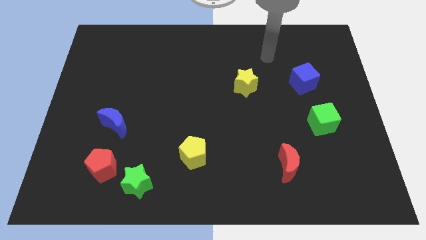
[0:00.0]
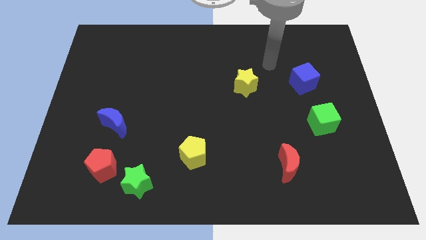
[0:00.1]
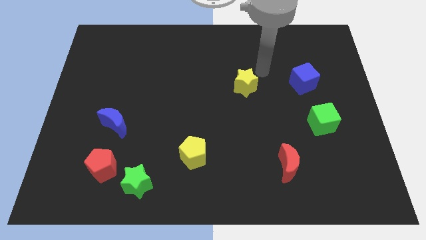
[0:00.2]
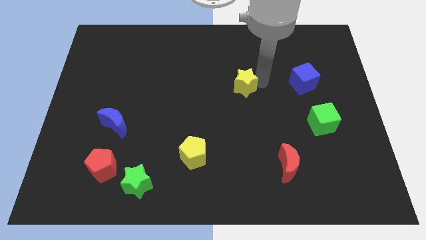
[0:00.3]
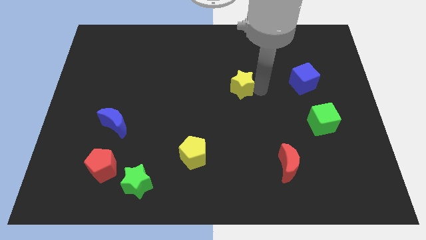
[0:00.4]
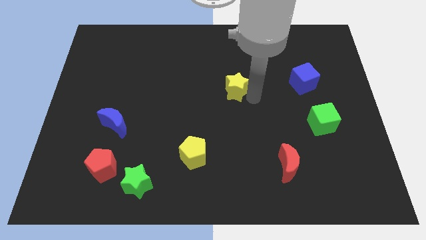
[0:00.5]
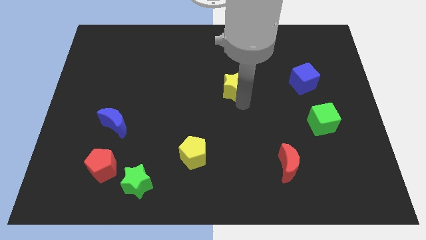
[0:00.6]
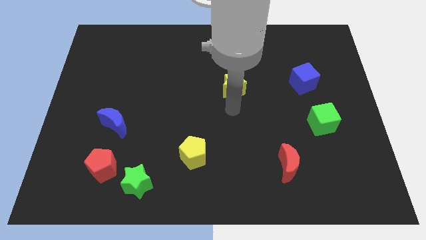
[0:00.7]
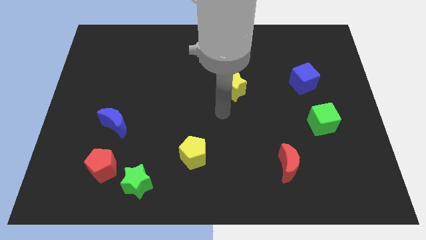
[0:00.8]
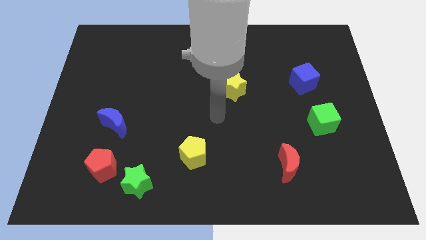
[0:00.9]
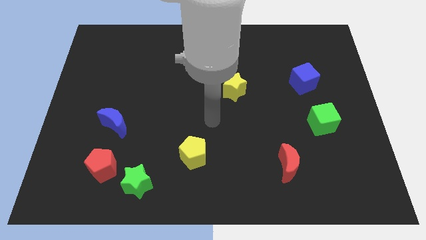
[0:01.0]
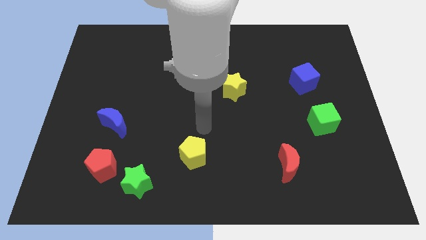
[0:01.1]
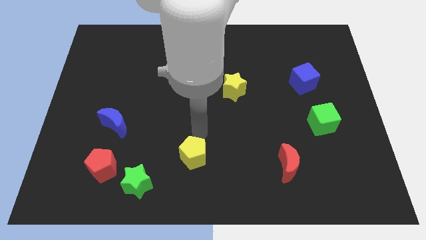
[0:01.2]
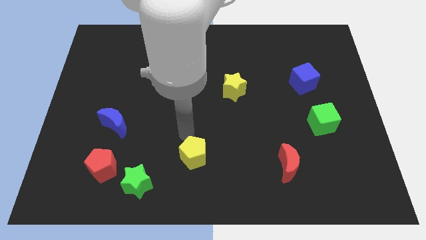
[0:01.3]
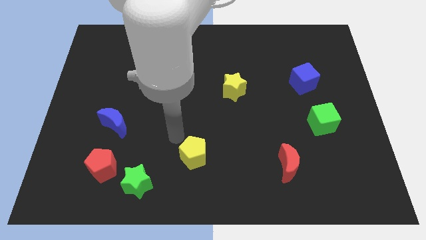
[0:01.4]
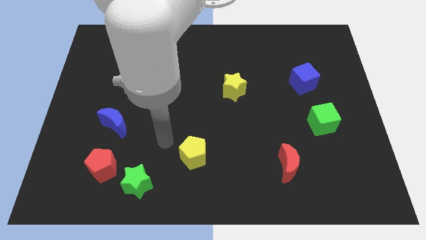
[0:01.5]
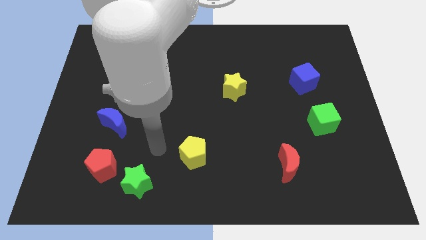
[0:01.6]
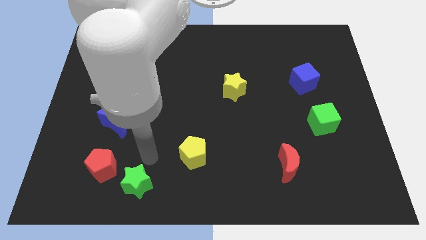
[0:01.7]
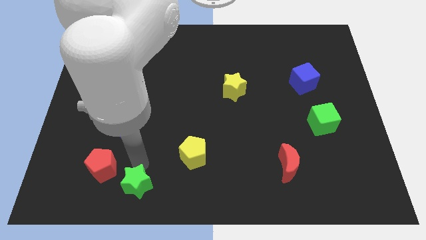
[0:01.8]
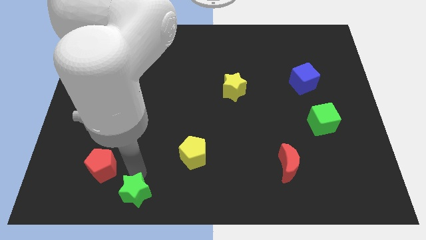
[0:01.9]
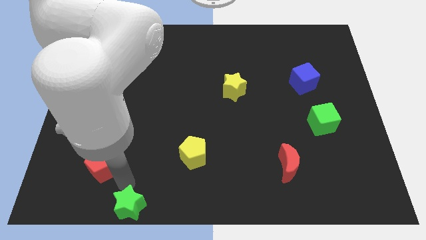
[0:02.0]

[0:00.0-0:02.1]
move the red pentagon away from the green star

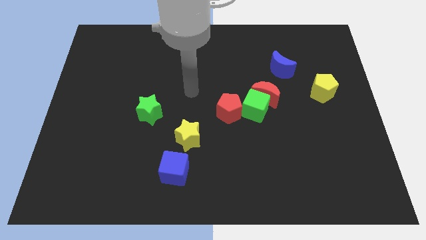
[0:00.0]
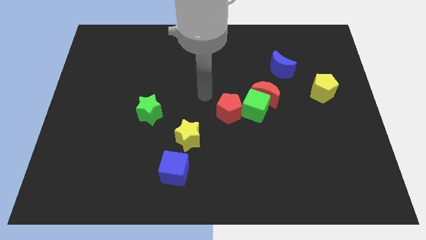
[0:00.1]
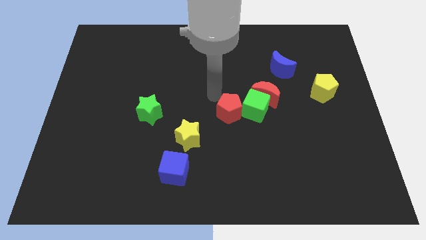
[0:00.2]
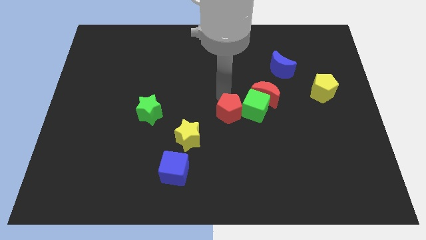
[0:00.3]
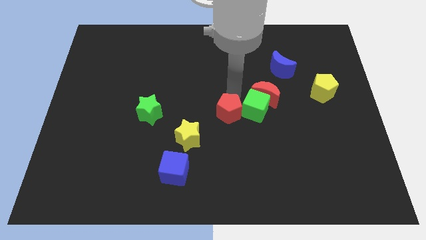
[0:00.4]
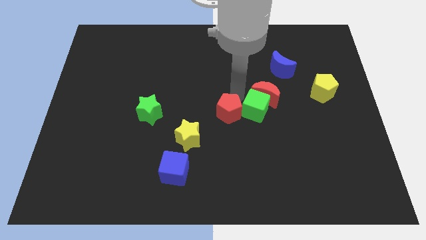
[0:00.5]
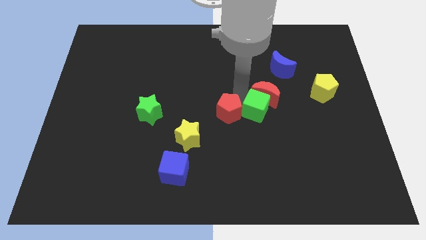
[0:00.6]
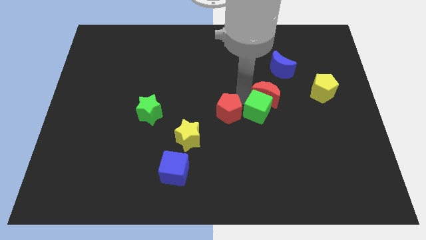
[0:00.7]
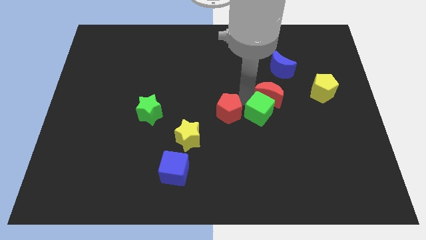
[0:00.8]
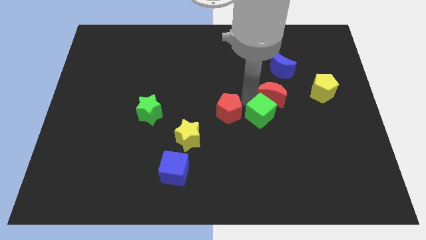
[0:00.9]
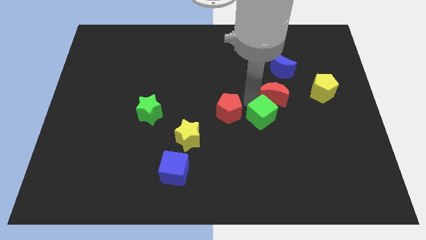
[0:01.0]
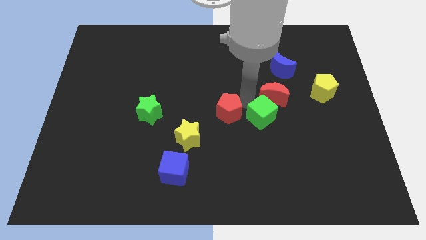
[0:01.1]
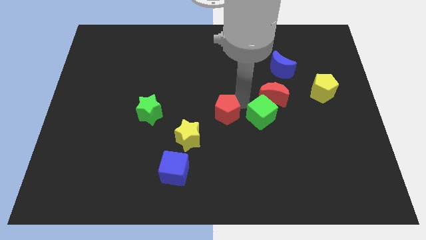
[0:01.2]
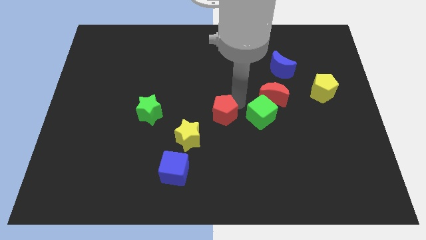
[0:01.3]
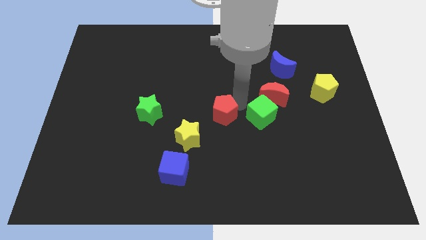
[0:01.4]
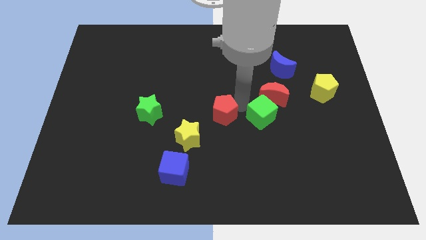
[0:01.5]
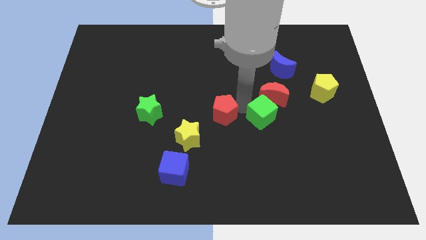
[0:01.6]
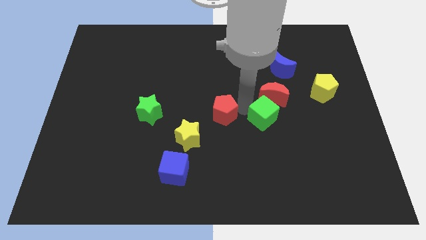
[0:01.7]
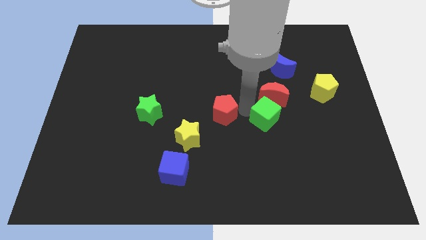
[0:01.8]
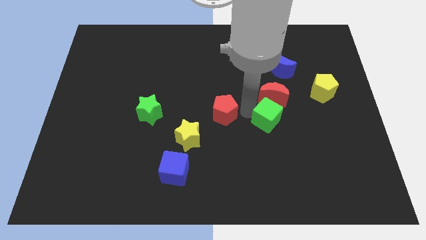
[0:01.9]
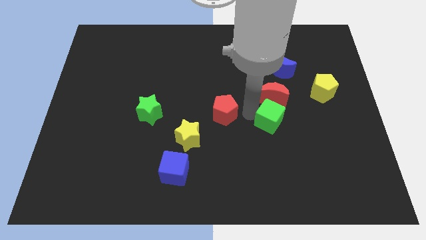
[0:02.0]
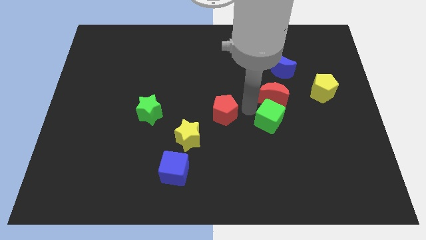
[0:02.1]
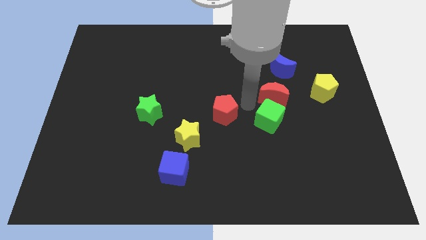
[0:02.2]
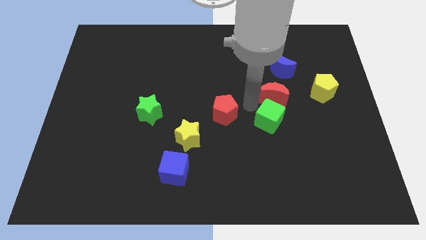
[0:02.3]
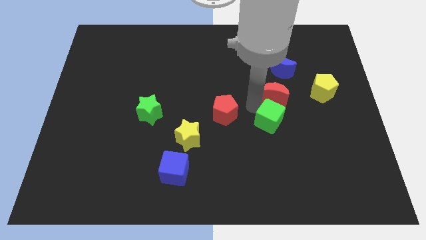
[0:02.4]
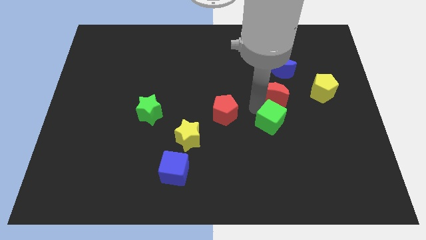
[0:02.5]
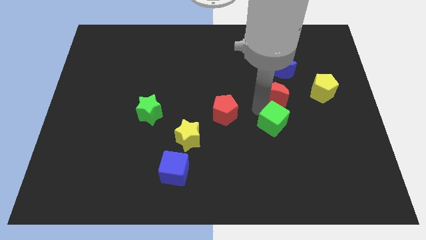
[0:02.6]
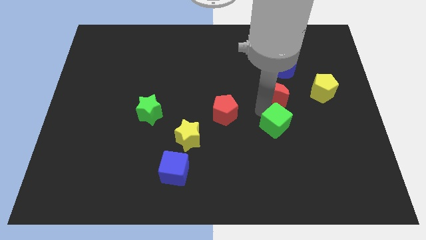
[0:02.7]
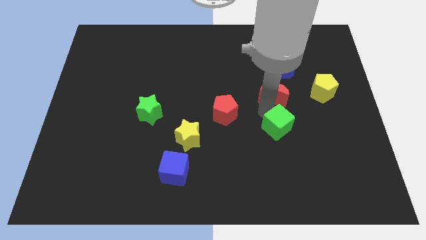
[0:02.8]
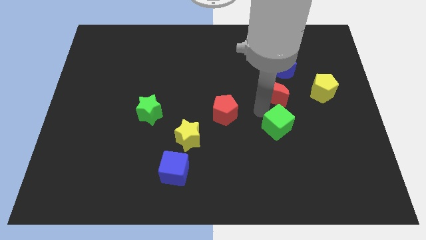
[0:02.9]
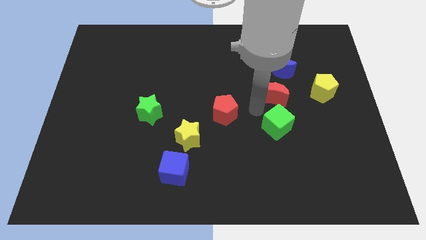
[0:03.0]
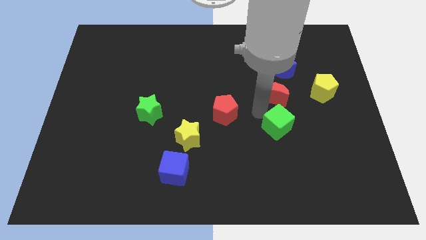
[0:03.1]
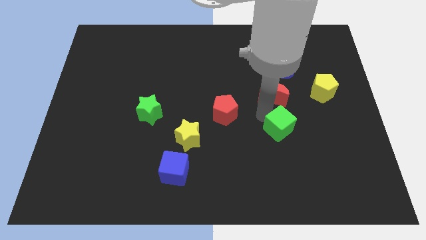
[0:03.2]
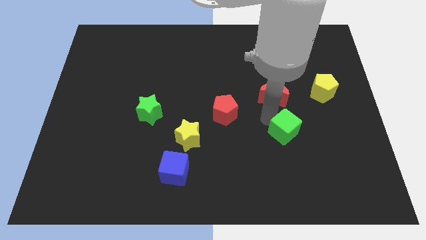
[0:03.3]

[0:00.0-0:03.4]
separate the green cube from the red moon and red pentagon

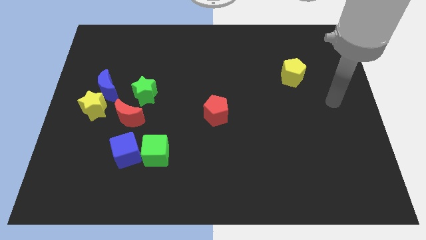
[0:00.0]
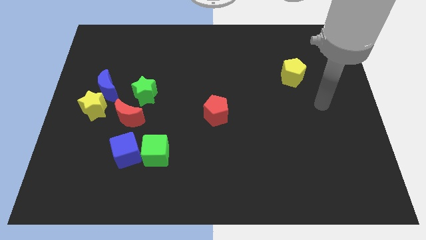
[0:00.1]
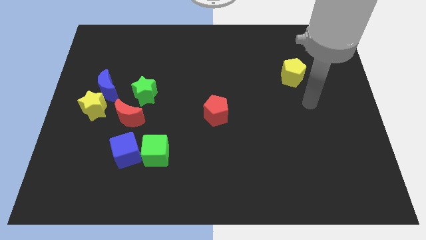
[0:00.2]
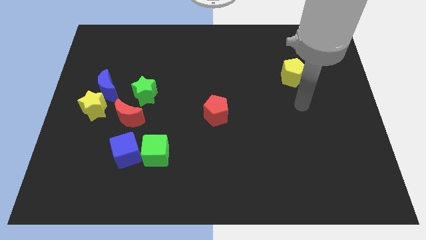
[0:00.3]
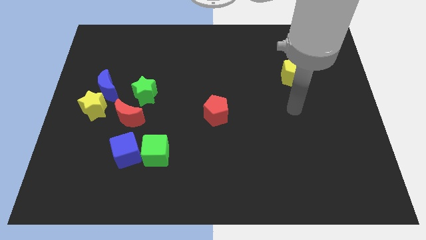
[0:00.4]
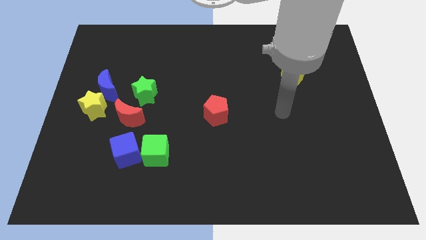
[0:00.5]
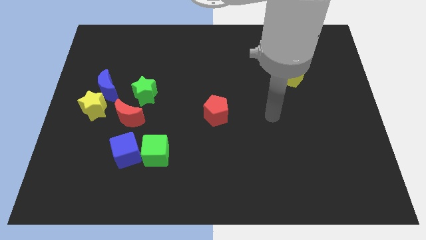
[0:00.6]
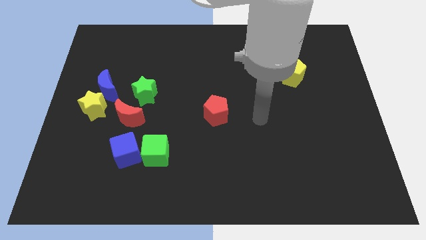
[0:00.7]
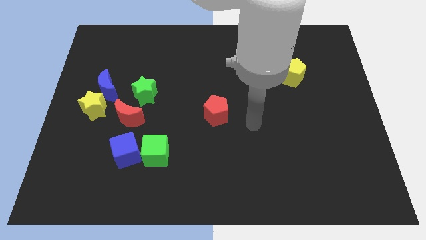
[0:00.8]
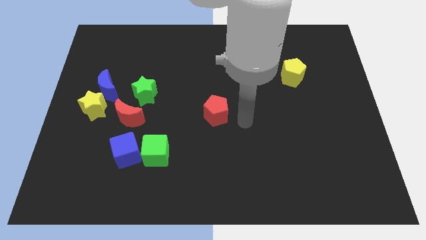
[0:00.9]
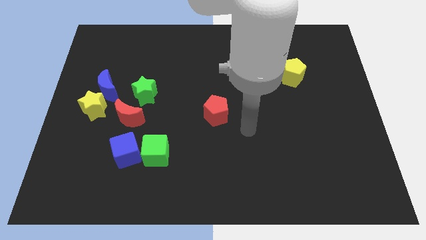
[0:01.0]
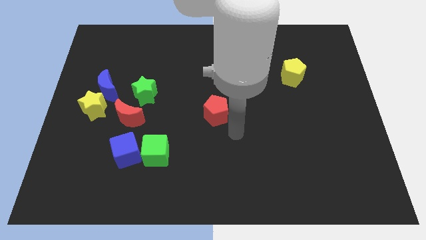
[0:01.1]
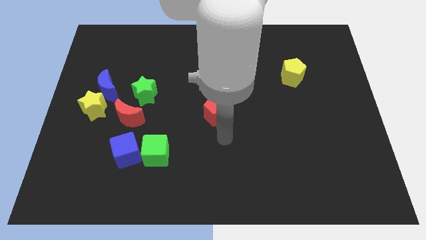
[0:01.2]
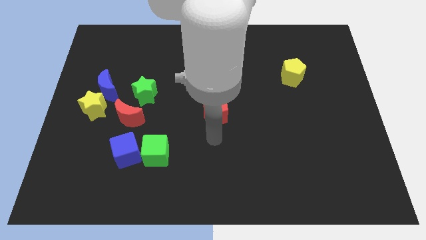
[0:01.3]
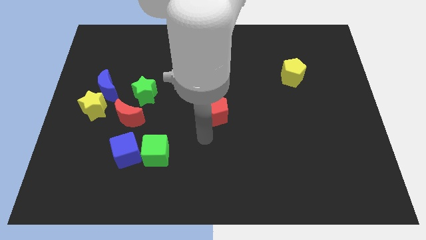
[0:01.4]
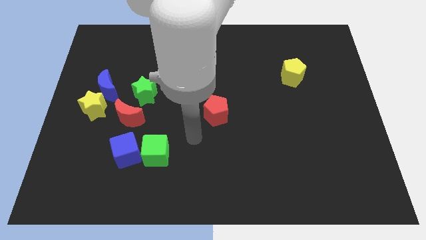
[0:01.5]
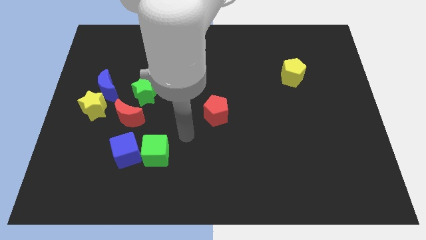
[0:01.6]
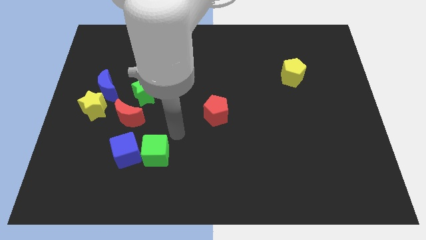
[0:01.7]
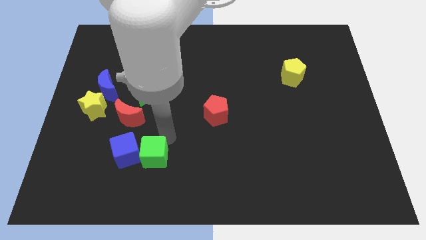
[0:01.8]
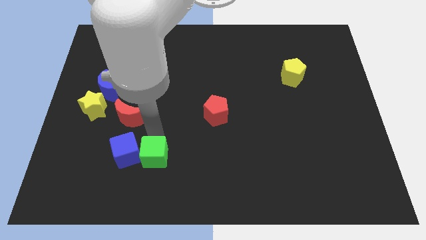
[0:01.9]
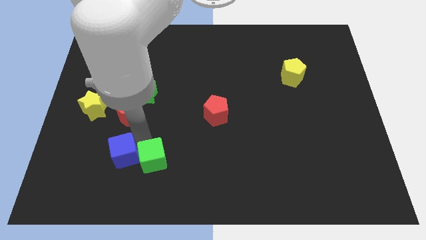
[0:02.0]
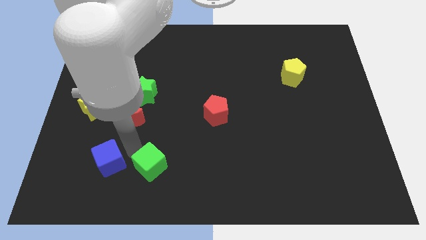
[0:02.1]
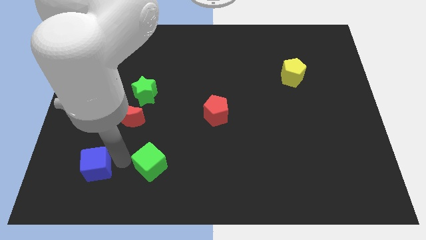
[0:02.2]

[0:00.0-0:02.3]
pull the green cube apart from the blue cube

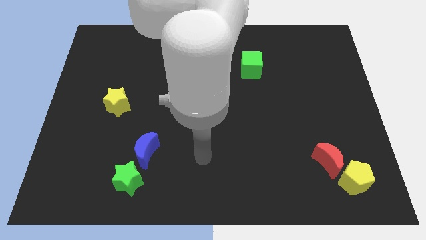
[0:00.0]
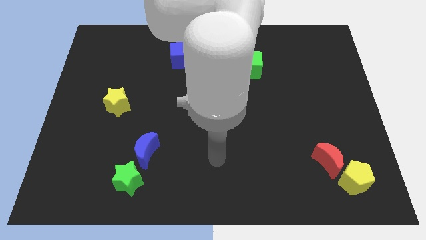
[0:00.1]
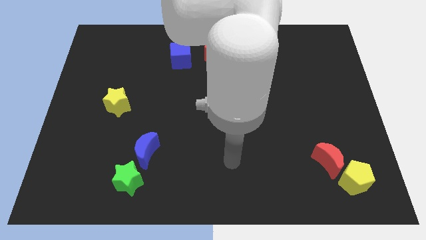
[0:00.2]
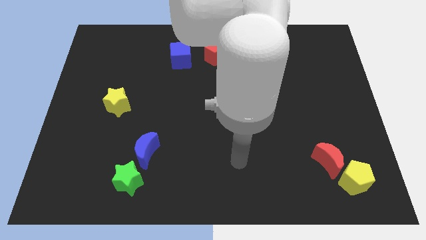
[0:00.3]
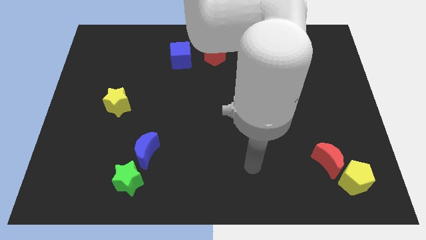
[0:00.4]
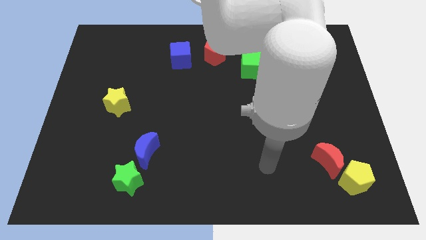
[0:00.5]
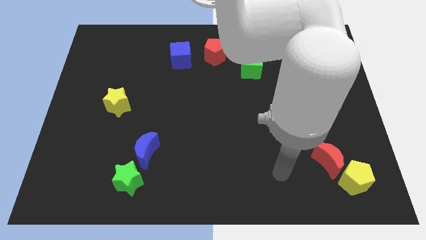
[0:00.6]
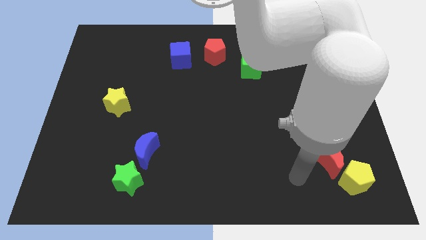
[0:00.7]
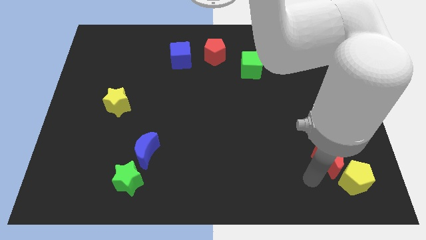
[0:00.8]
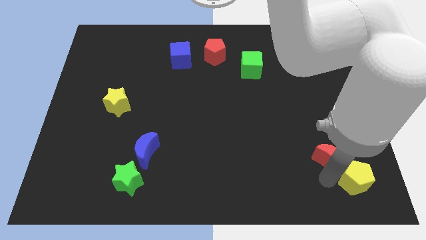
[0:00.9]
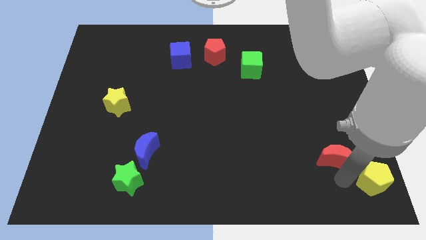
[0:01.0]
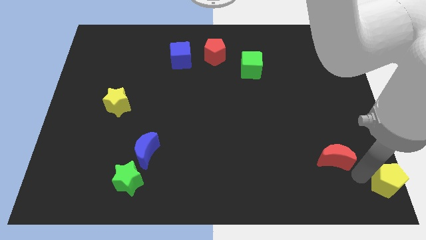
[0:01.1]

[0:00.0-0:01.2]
move the red moon away from the yellow pentagon

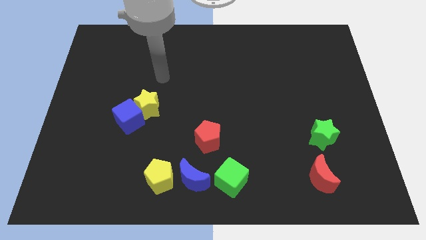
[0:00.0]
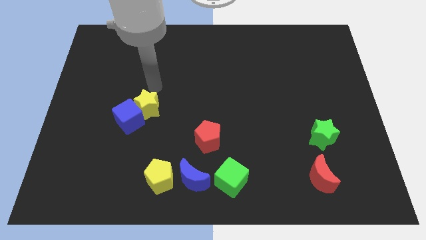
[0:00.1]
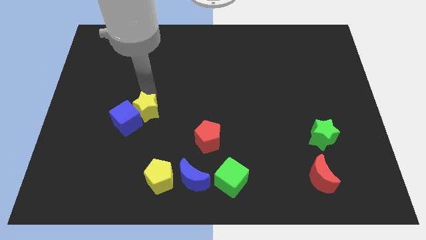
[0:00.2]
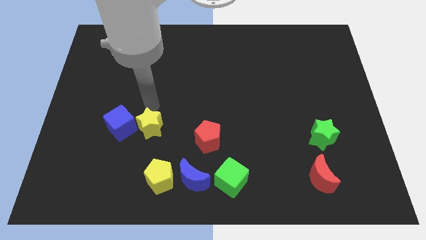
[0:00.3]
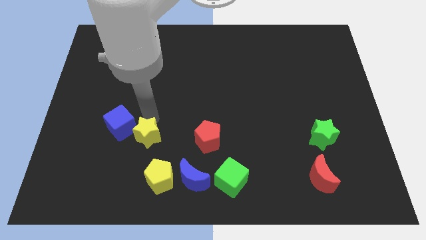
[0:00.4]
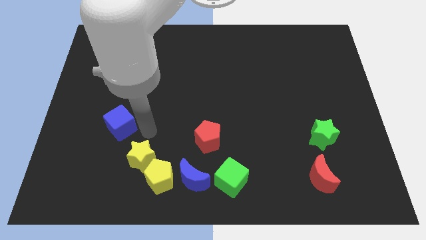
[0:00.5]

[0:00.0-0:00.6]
pull the blue cube apart from the yellow star
